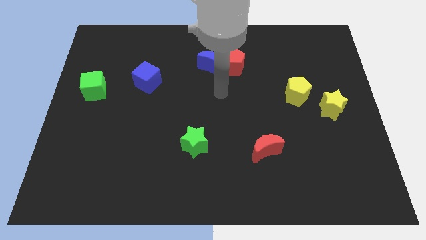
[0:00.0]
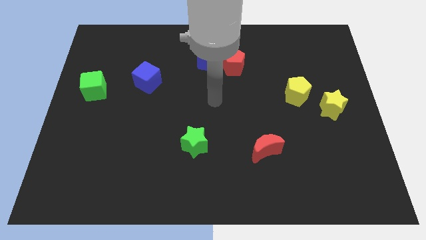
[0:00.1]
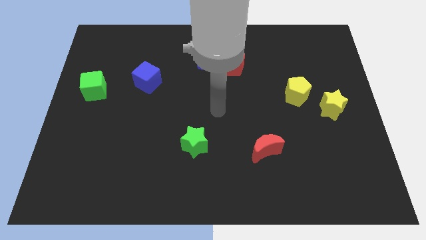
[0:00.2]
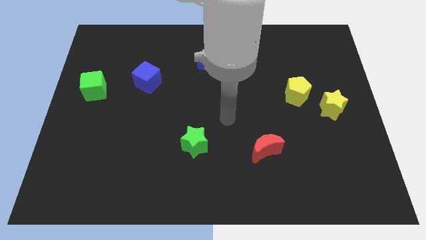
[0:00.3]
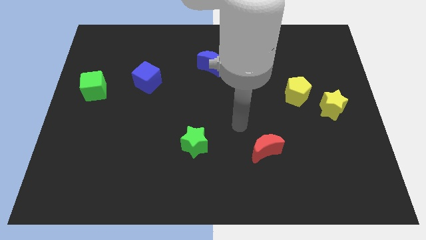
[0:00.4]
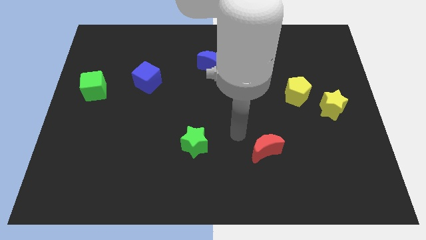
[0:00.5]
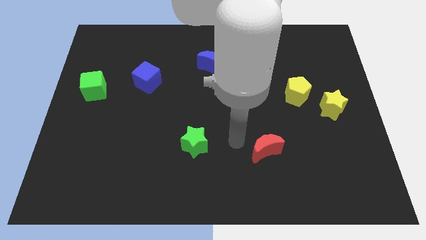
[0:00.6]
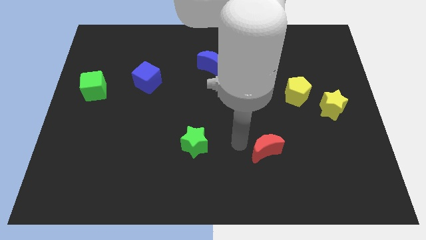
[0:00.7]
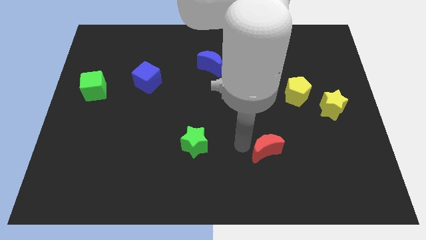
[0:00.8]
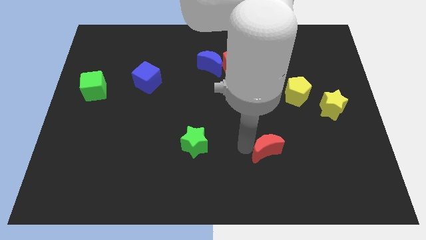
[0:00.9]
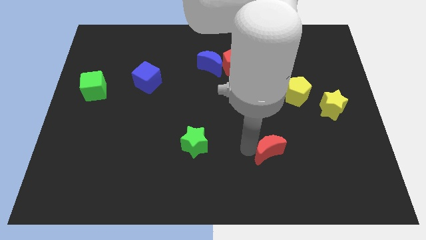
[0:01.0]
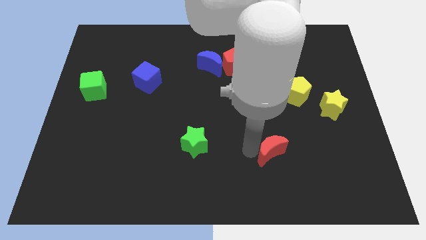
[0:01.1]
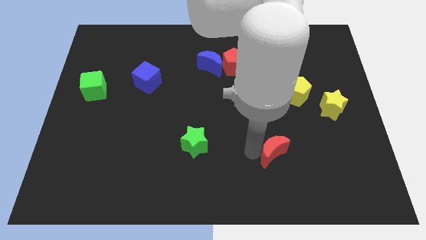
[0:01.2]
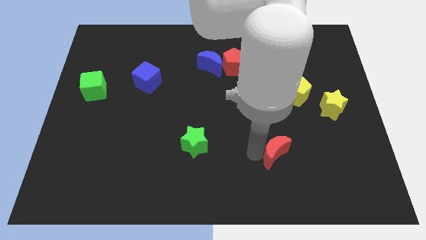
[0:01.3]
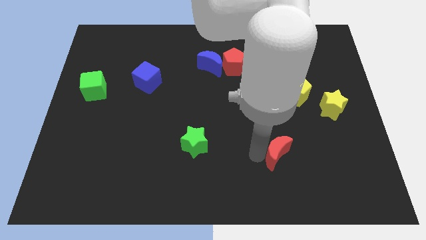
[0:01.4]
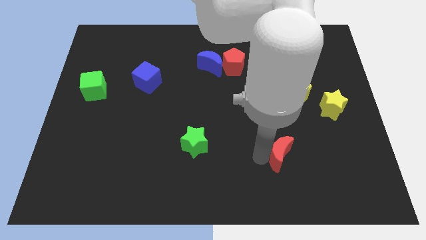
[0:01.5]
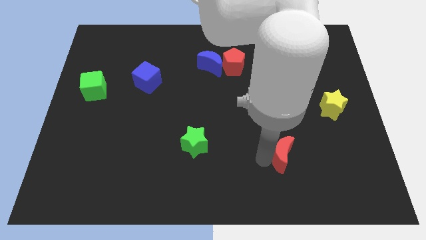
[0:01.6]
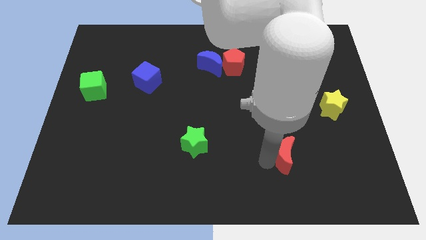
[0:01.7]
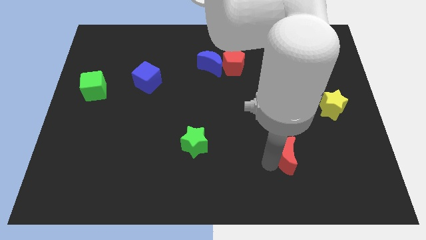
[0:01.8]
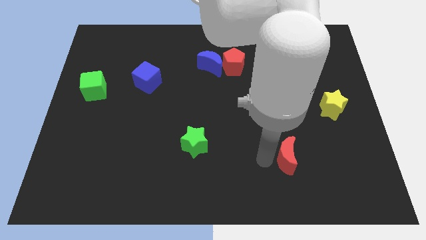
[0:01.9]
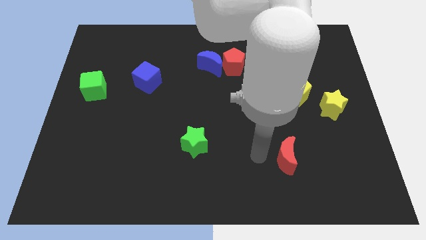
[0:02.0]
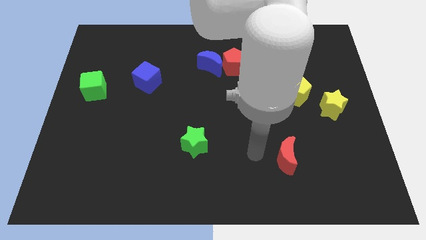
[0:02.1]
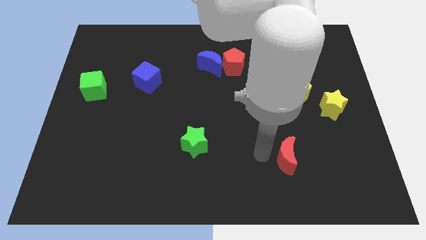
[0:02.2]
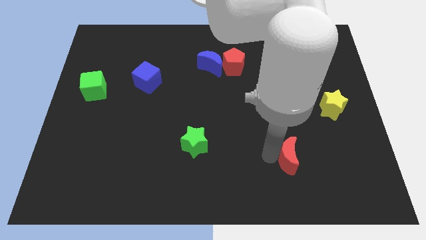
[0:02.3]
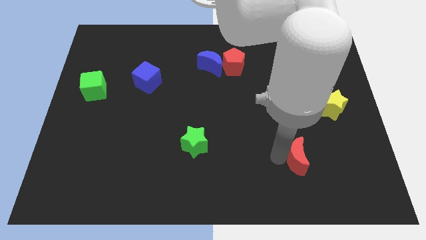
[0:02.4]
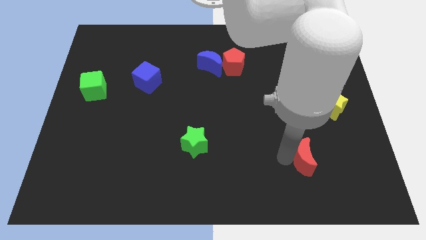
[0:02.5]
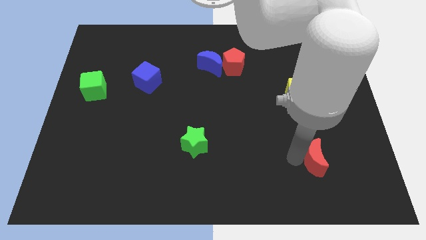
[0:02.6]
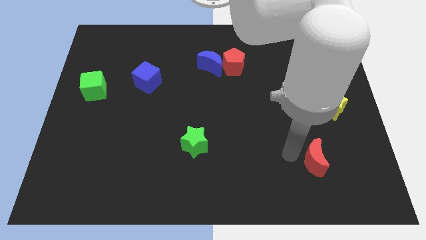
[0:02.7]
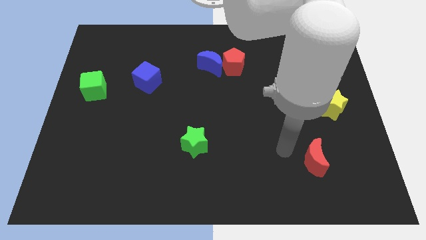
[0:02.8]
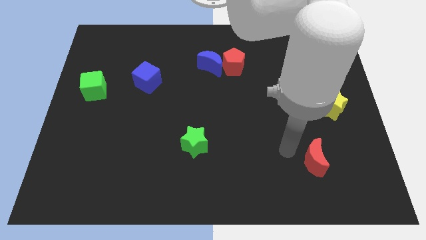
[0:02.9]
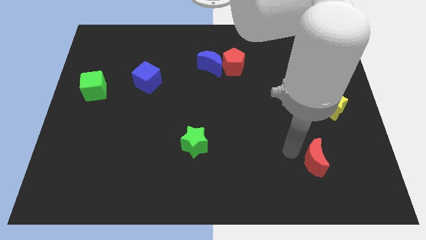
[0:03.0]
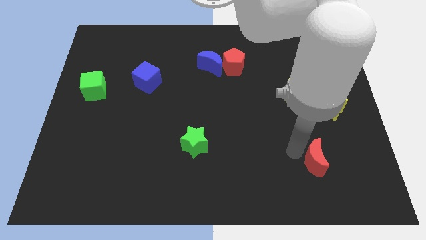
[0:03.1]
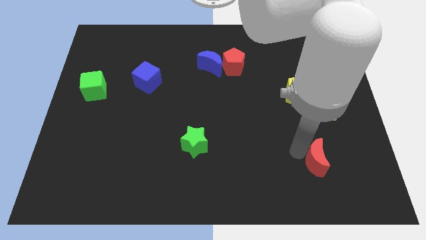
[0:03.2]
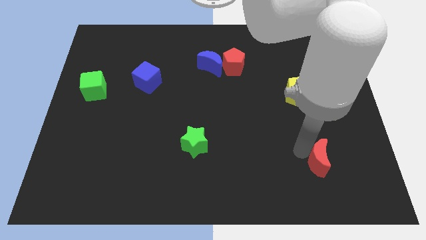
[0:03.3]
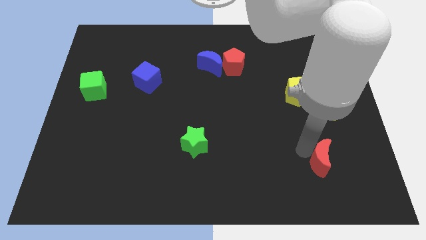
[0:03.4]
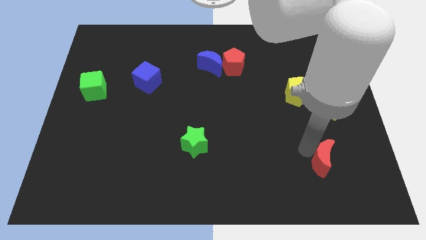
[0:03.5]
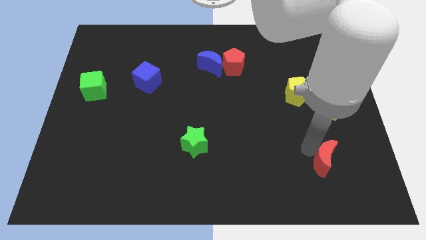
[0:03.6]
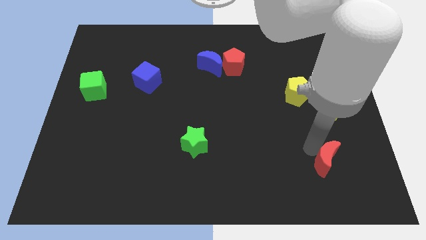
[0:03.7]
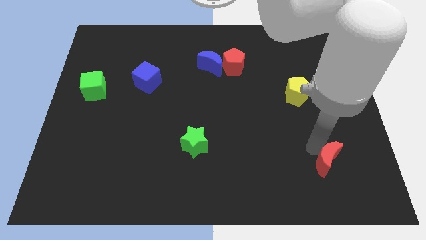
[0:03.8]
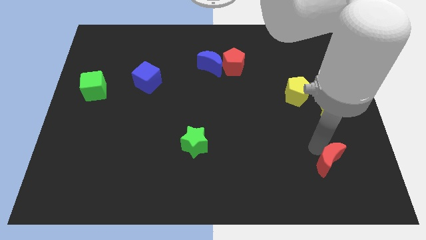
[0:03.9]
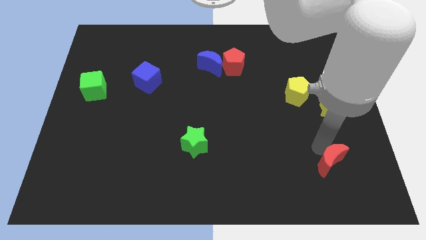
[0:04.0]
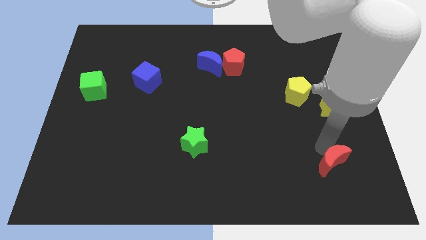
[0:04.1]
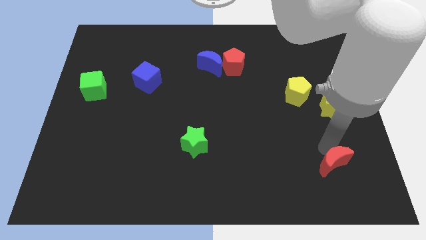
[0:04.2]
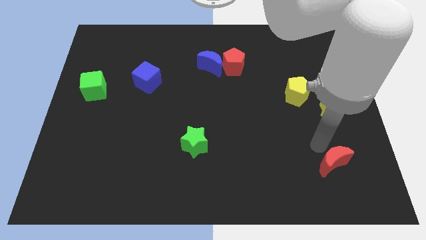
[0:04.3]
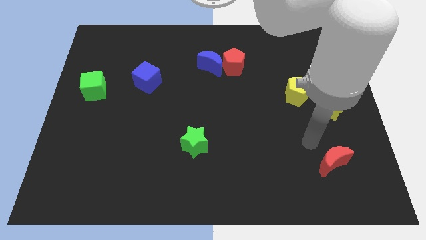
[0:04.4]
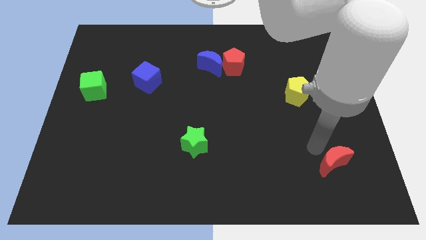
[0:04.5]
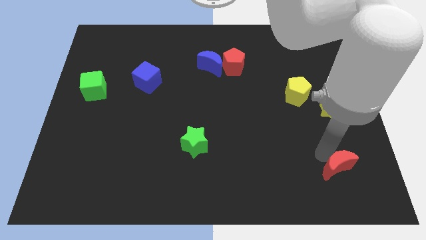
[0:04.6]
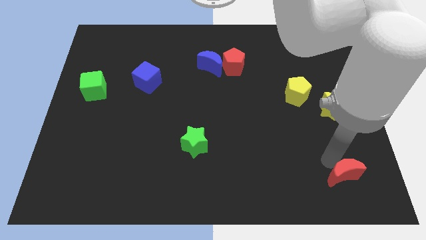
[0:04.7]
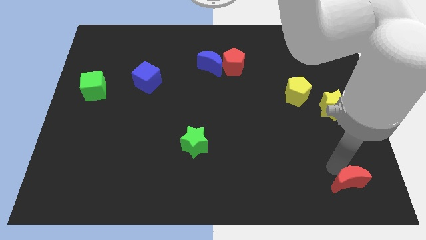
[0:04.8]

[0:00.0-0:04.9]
put the red moon to the bottom right of the board

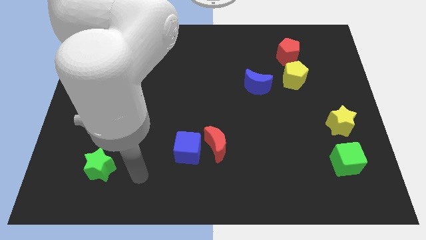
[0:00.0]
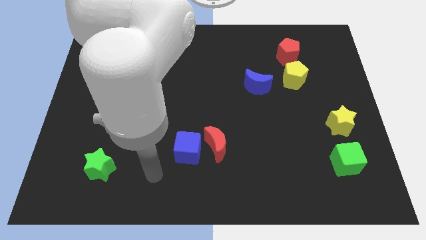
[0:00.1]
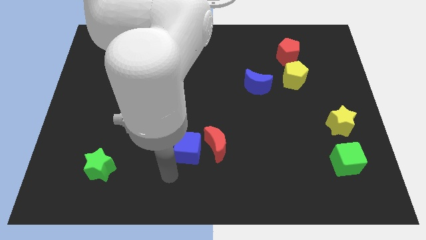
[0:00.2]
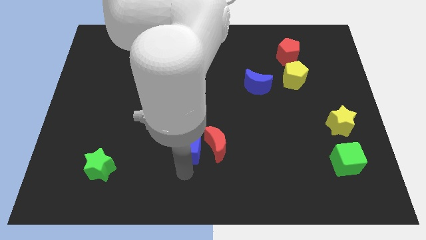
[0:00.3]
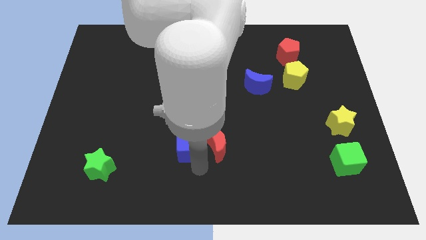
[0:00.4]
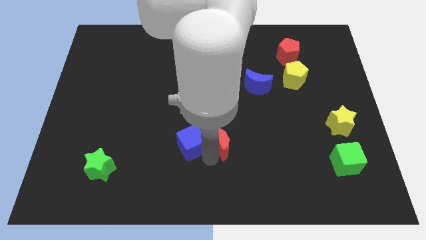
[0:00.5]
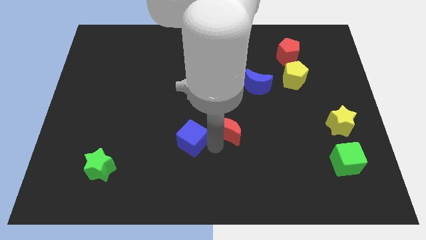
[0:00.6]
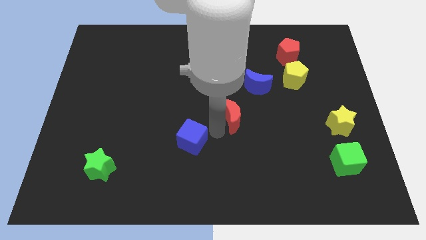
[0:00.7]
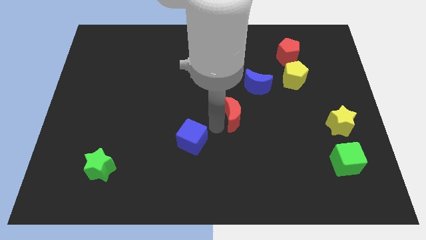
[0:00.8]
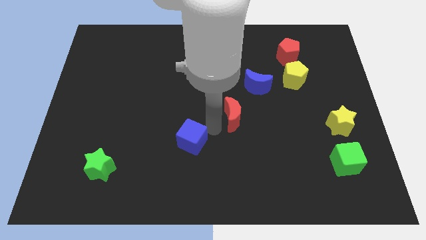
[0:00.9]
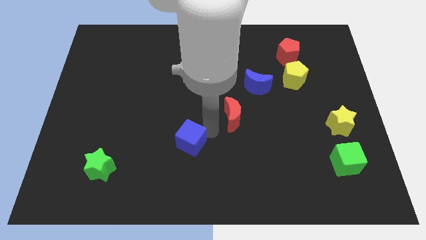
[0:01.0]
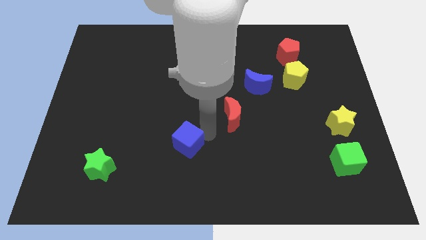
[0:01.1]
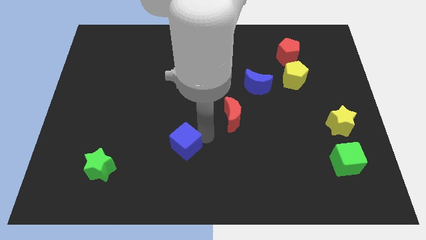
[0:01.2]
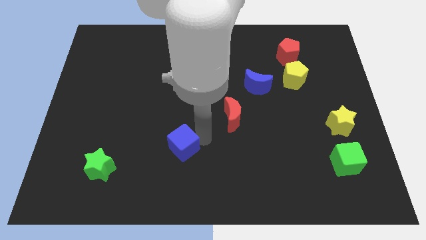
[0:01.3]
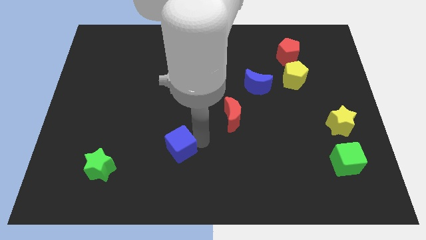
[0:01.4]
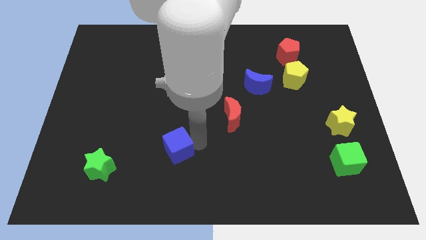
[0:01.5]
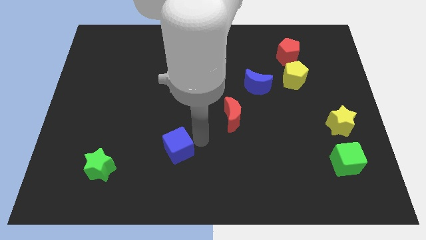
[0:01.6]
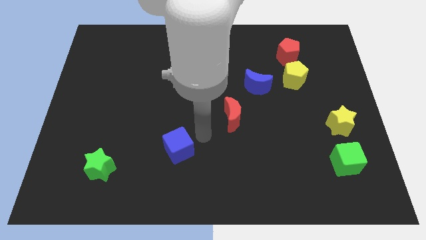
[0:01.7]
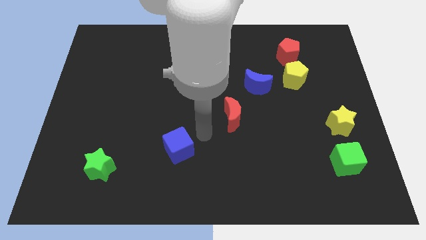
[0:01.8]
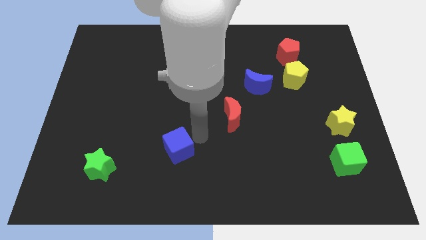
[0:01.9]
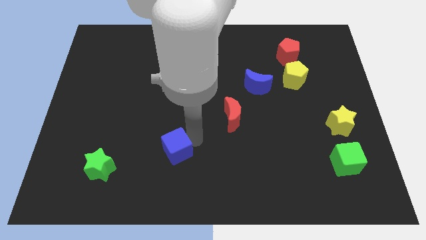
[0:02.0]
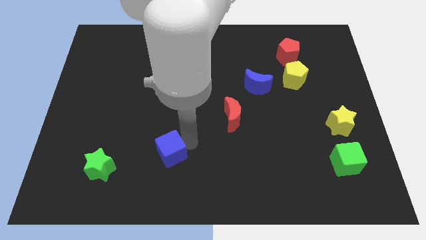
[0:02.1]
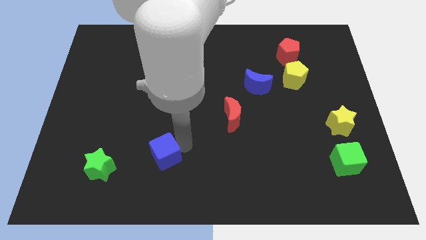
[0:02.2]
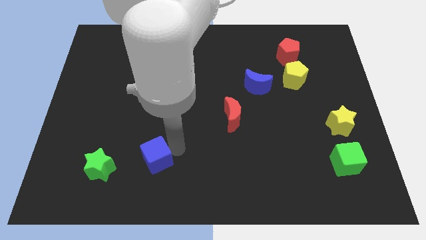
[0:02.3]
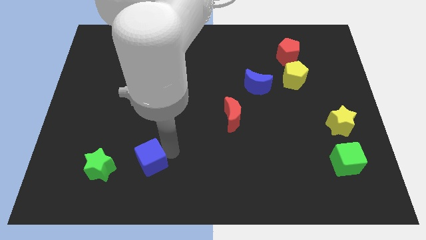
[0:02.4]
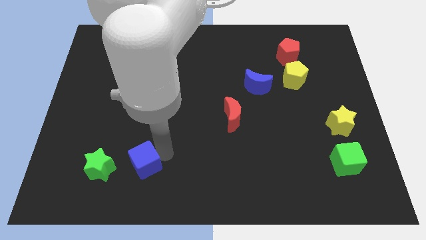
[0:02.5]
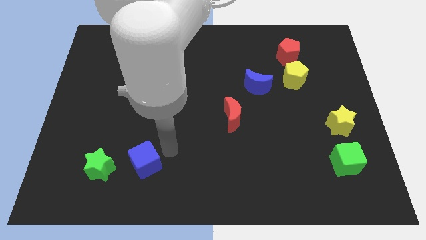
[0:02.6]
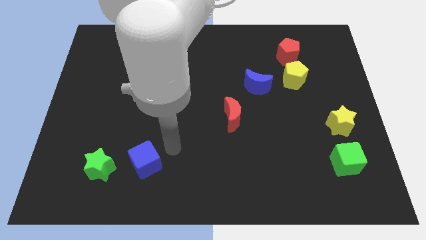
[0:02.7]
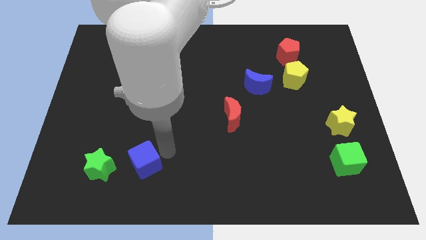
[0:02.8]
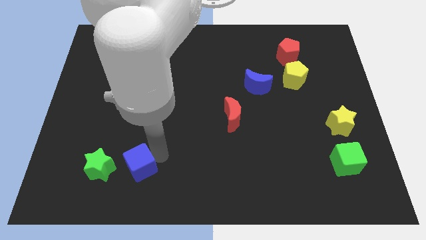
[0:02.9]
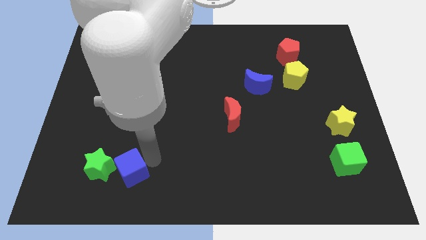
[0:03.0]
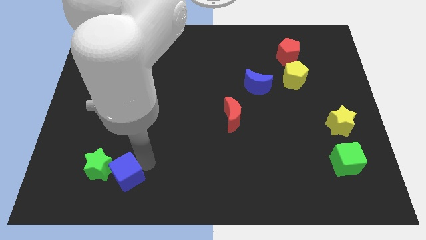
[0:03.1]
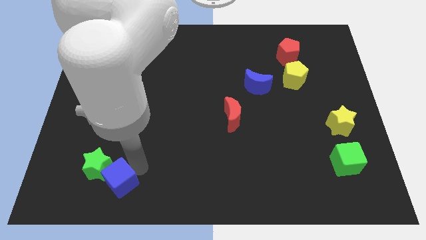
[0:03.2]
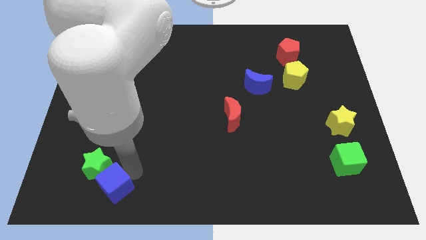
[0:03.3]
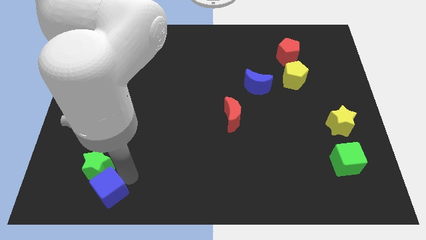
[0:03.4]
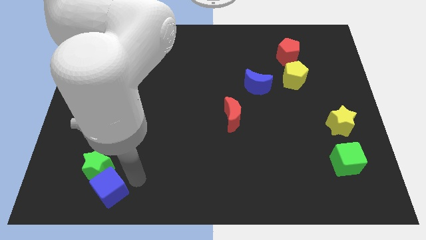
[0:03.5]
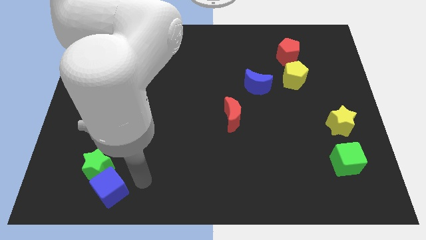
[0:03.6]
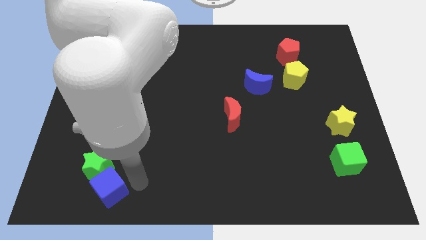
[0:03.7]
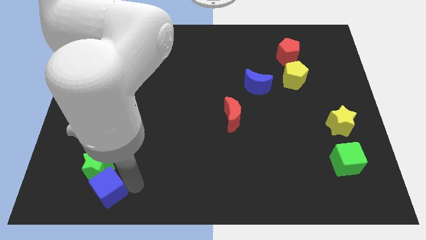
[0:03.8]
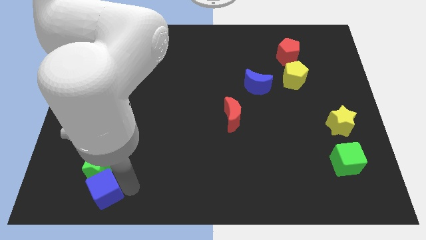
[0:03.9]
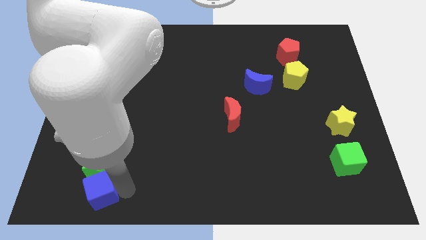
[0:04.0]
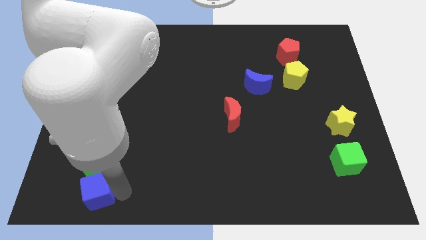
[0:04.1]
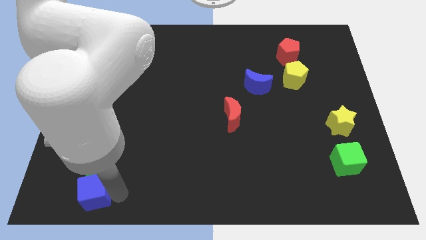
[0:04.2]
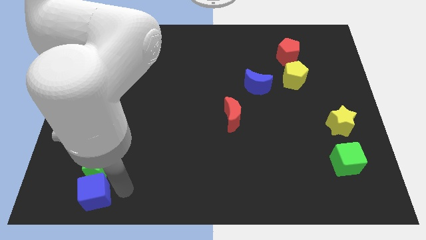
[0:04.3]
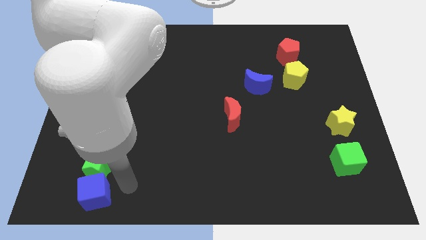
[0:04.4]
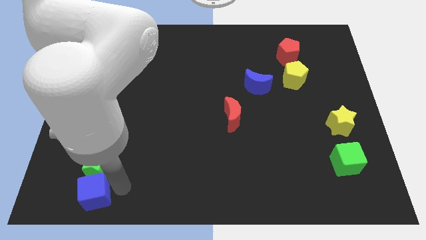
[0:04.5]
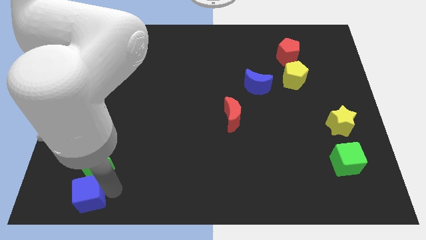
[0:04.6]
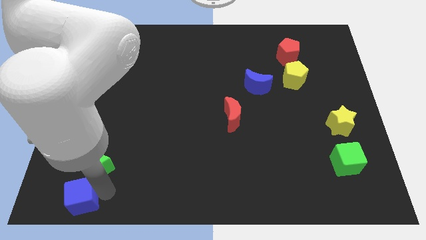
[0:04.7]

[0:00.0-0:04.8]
move the blue cube to the bottom left
